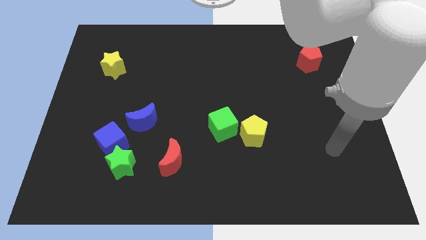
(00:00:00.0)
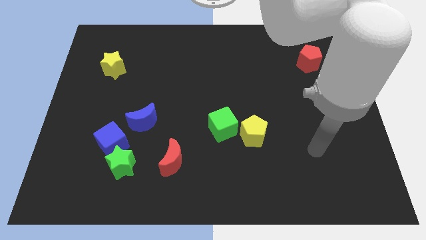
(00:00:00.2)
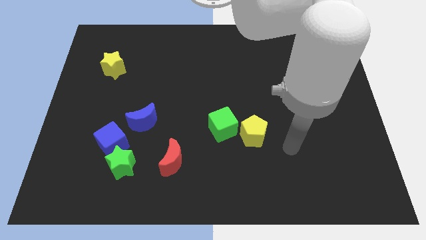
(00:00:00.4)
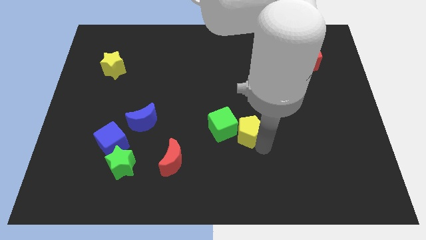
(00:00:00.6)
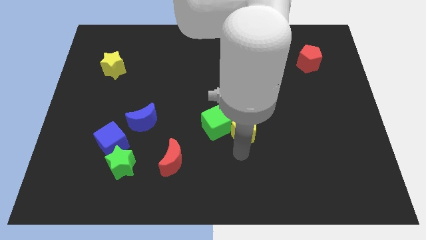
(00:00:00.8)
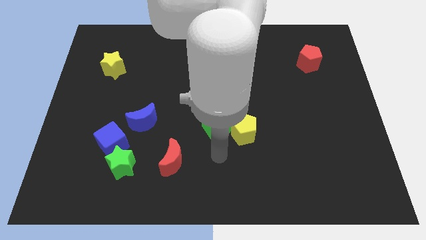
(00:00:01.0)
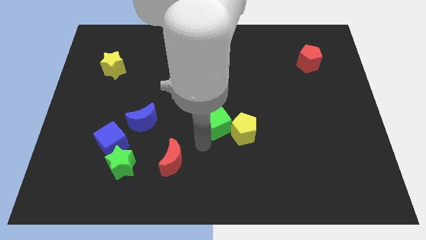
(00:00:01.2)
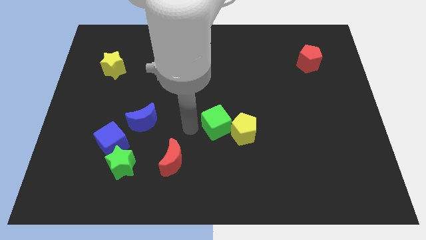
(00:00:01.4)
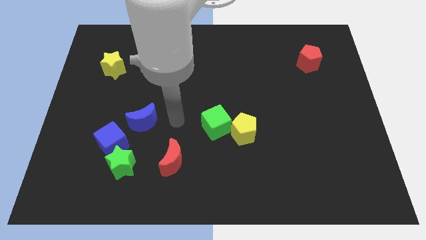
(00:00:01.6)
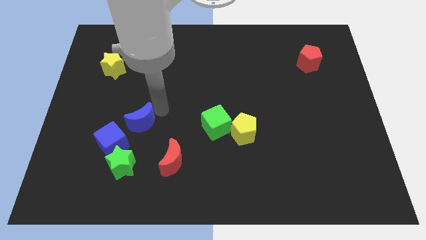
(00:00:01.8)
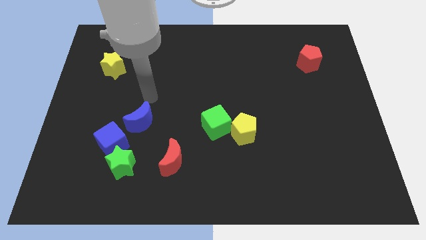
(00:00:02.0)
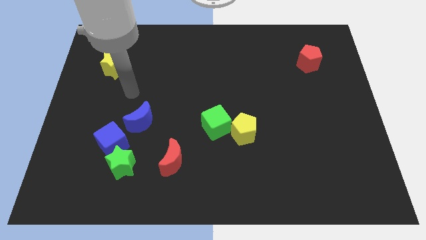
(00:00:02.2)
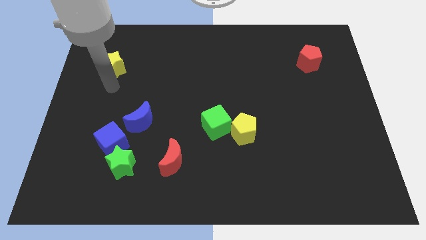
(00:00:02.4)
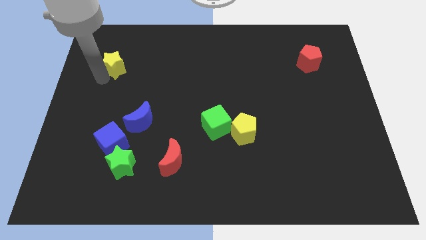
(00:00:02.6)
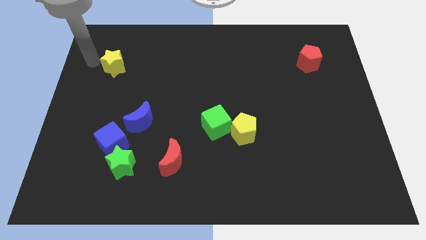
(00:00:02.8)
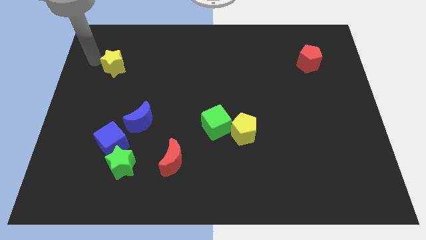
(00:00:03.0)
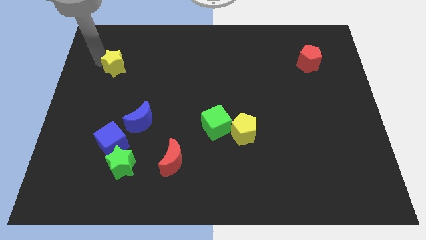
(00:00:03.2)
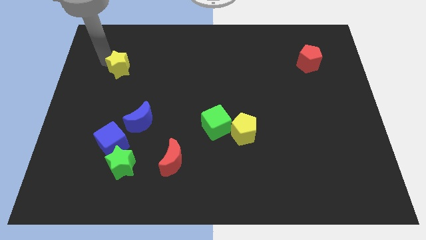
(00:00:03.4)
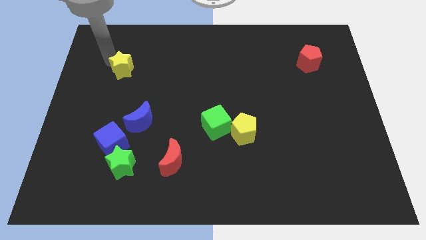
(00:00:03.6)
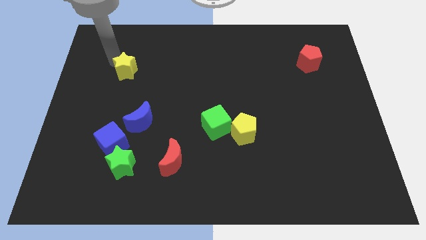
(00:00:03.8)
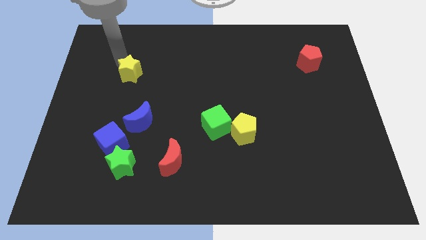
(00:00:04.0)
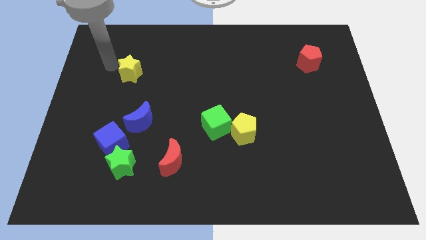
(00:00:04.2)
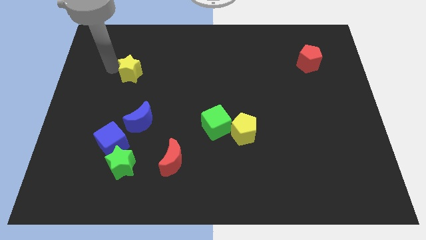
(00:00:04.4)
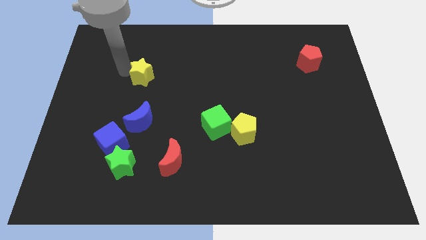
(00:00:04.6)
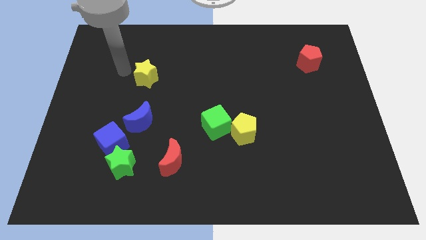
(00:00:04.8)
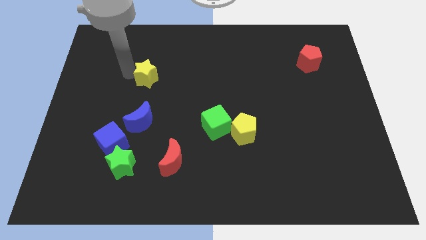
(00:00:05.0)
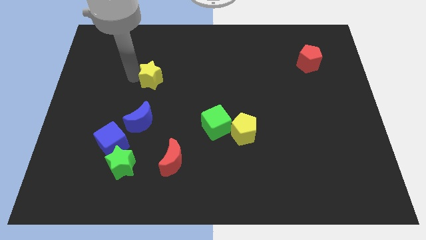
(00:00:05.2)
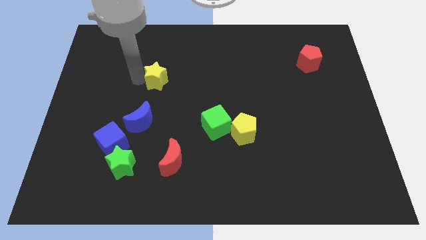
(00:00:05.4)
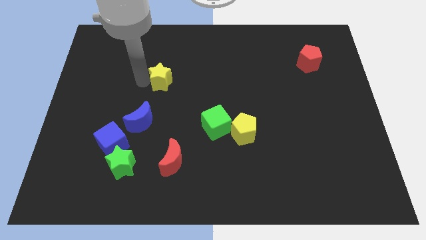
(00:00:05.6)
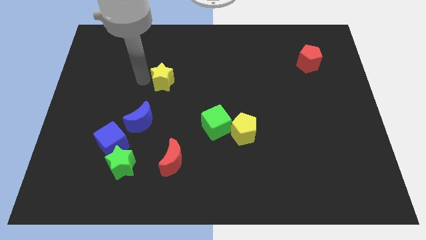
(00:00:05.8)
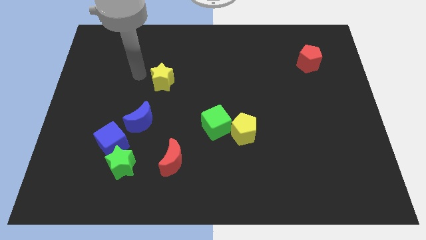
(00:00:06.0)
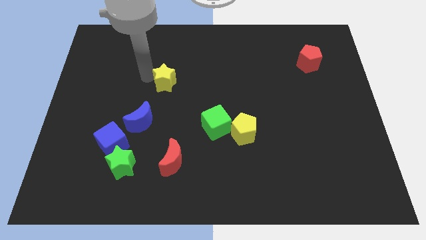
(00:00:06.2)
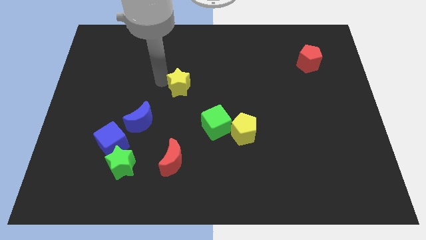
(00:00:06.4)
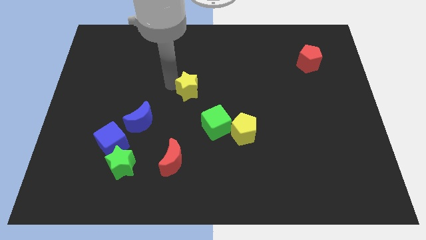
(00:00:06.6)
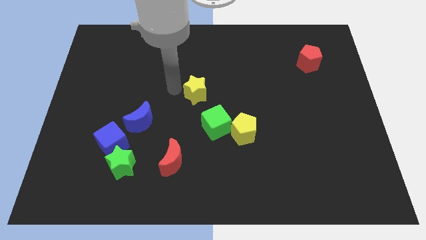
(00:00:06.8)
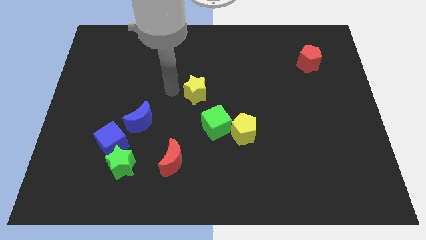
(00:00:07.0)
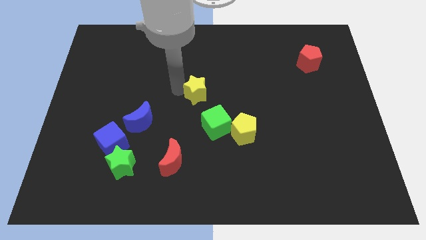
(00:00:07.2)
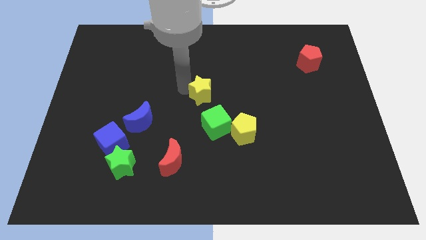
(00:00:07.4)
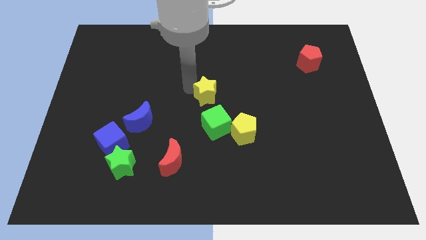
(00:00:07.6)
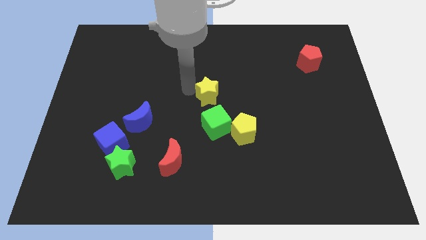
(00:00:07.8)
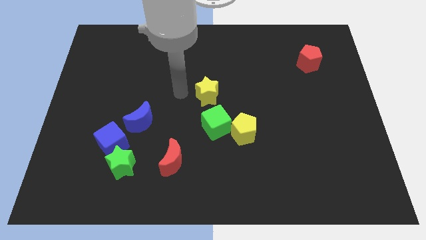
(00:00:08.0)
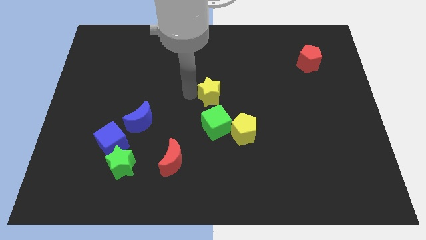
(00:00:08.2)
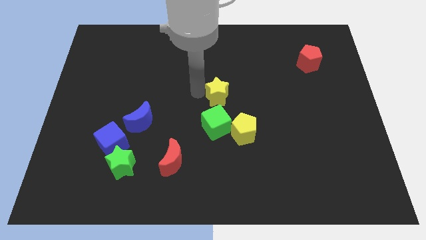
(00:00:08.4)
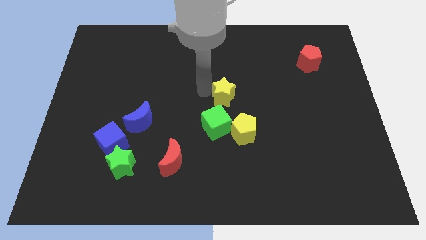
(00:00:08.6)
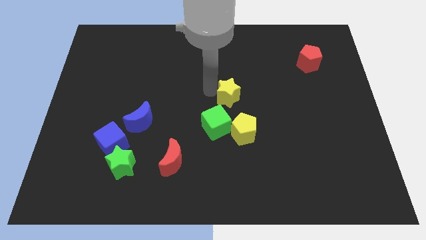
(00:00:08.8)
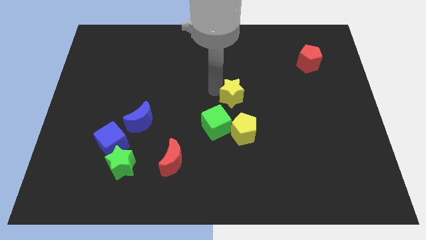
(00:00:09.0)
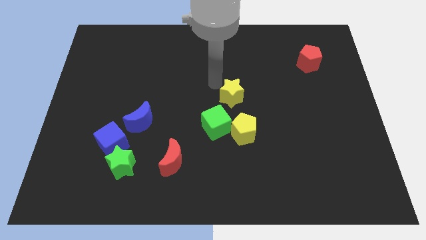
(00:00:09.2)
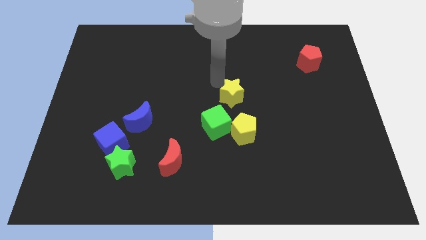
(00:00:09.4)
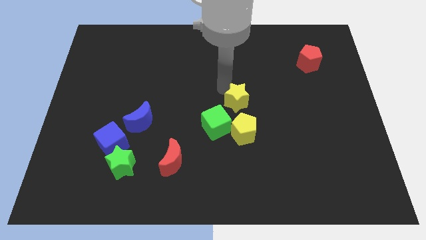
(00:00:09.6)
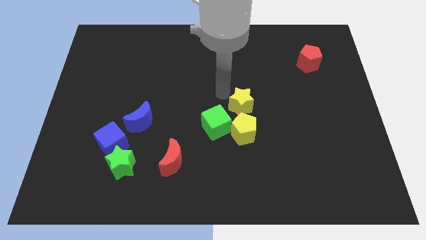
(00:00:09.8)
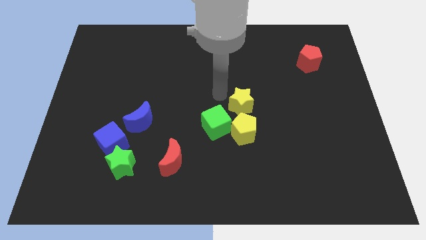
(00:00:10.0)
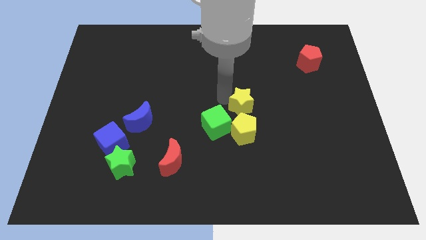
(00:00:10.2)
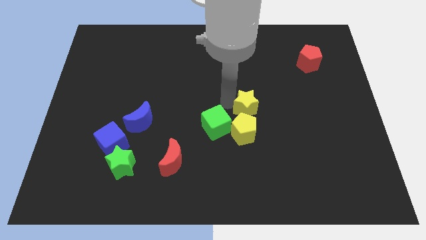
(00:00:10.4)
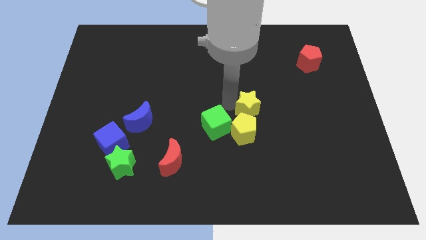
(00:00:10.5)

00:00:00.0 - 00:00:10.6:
move the yellow star right of the green cube

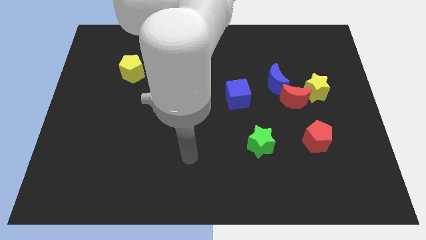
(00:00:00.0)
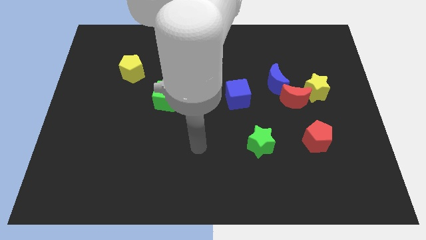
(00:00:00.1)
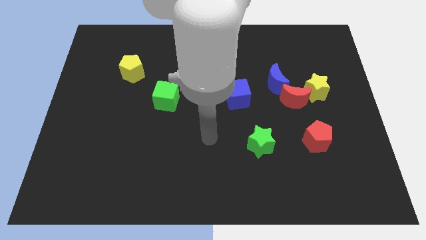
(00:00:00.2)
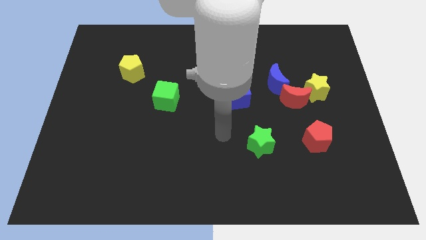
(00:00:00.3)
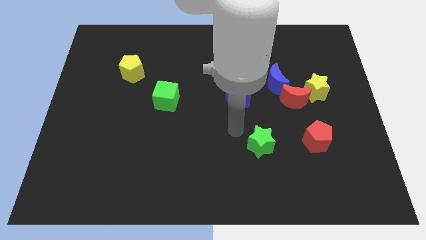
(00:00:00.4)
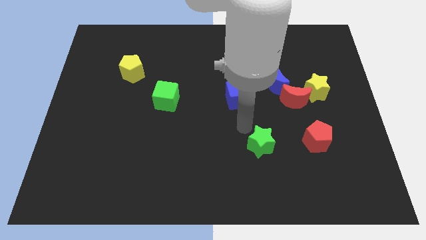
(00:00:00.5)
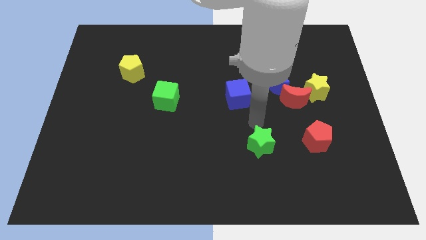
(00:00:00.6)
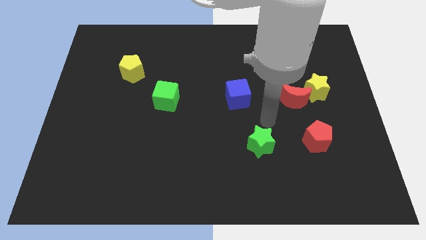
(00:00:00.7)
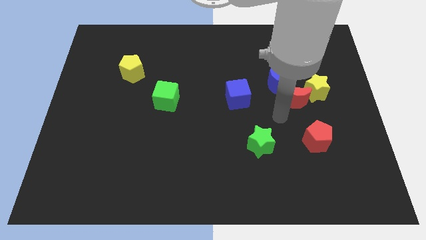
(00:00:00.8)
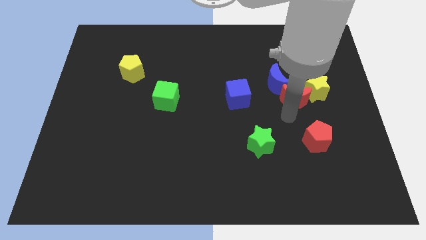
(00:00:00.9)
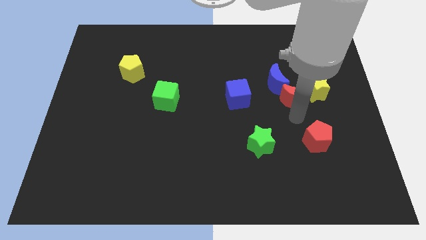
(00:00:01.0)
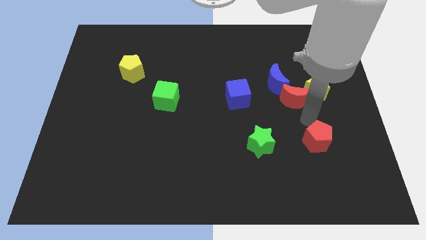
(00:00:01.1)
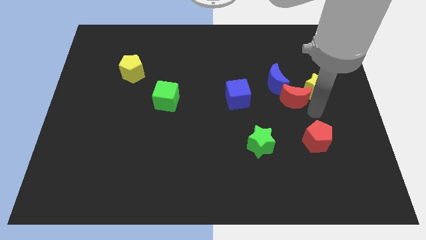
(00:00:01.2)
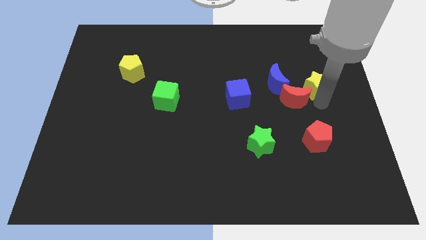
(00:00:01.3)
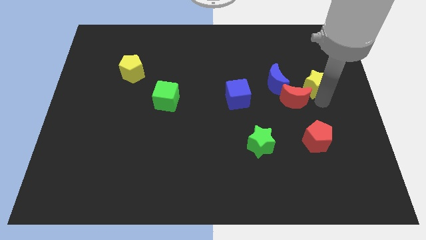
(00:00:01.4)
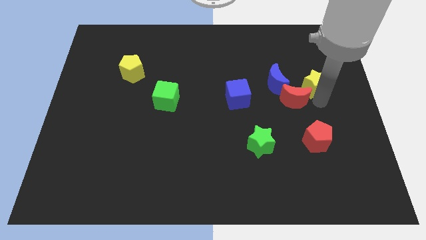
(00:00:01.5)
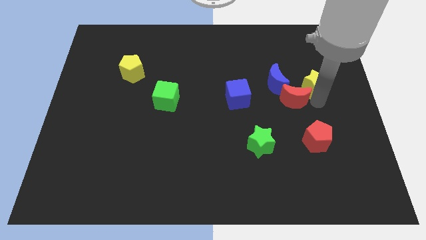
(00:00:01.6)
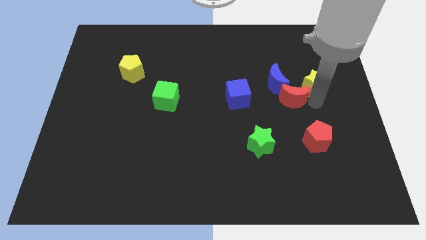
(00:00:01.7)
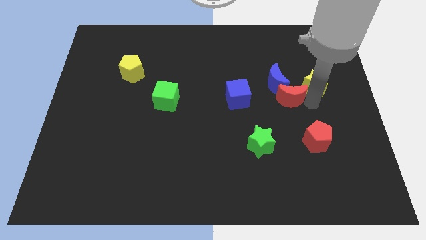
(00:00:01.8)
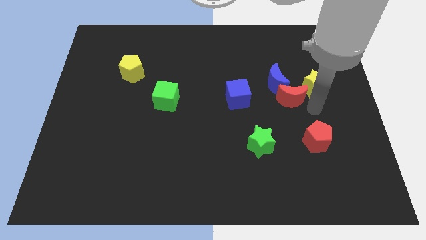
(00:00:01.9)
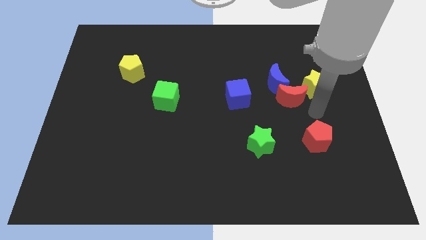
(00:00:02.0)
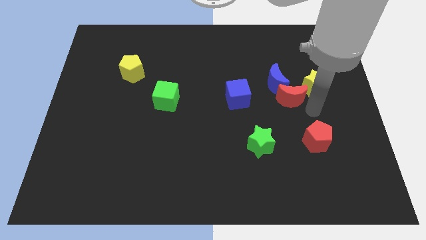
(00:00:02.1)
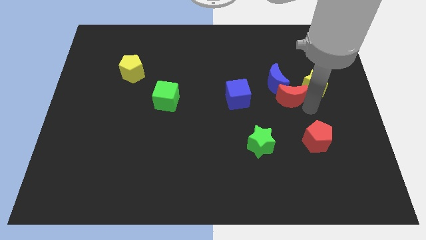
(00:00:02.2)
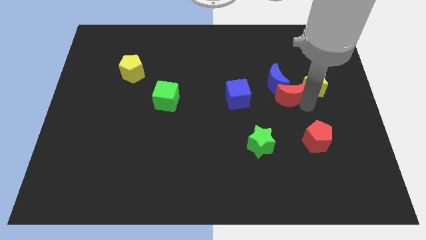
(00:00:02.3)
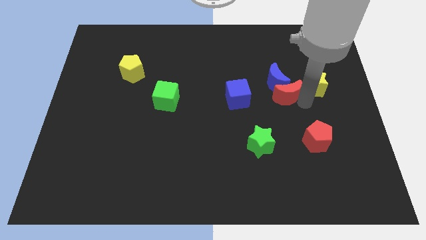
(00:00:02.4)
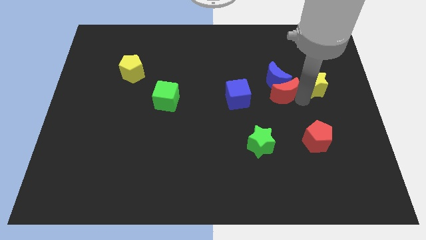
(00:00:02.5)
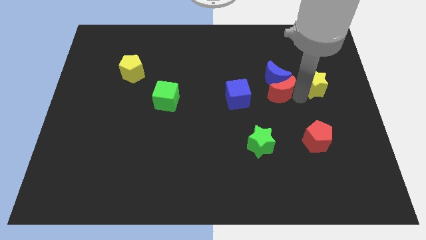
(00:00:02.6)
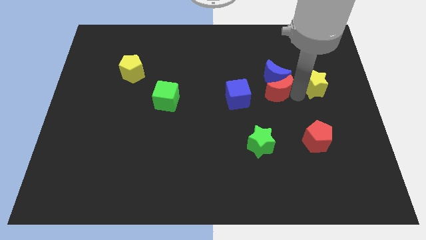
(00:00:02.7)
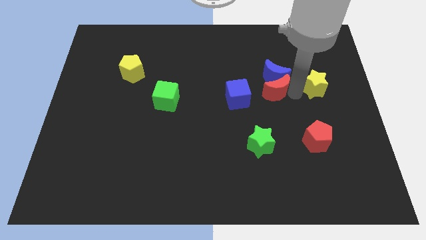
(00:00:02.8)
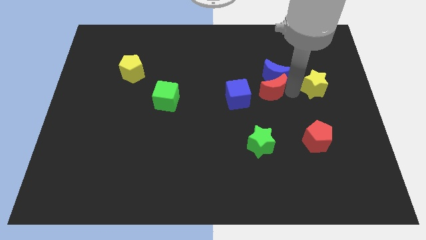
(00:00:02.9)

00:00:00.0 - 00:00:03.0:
put the red moon diagonally up and to the right of the blue cube
